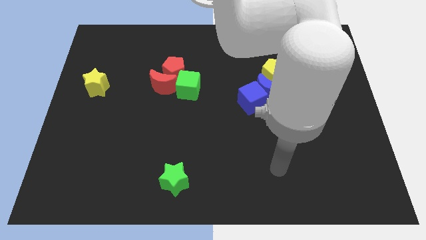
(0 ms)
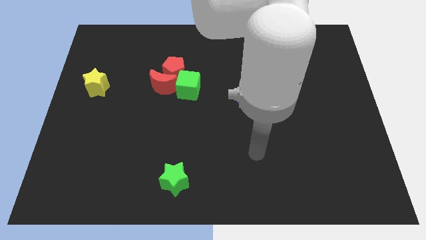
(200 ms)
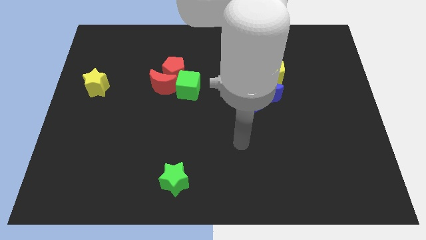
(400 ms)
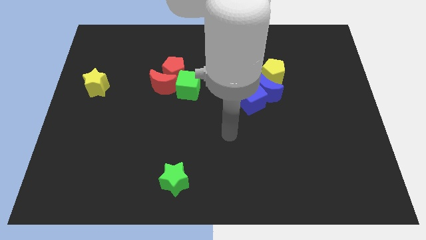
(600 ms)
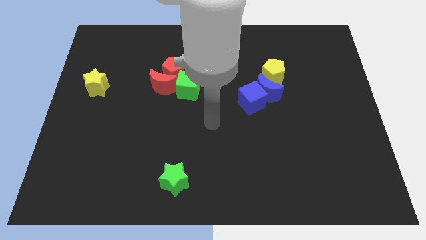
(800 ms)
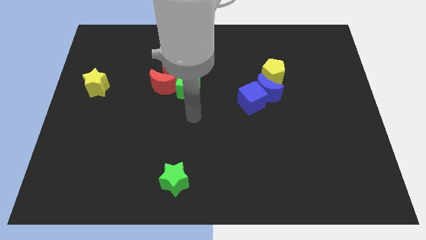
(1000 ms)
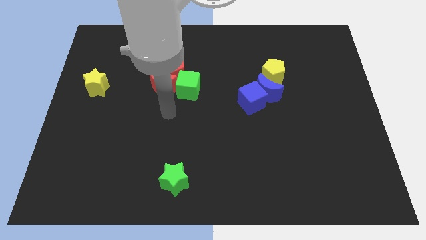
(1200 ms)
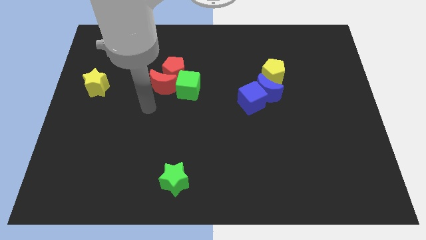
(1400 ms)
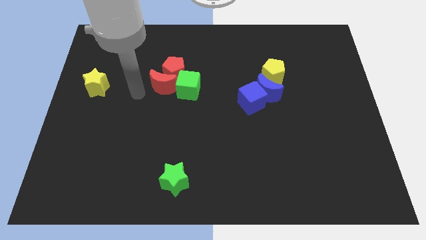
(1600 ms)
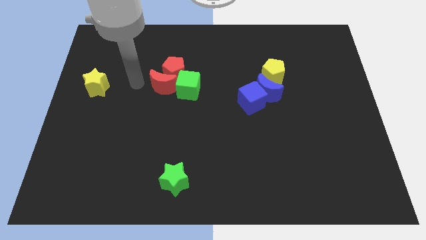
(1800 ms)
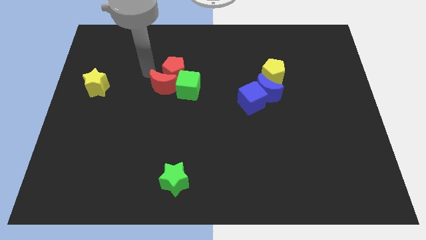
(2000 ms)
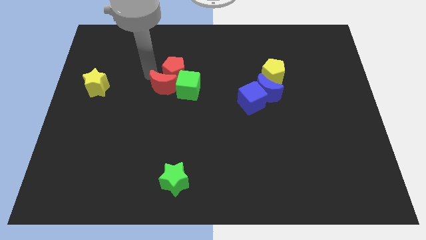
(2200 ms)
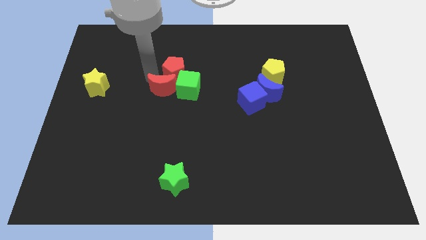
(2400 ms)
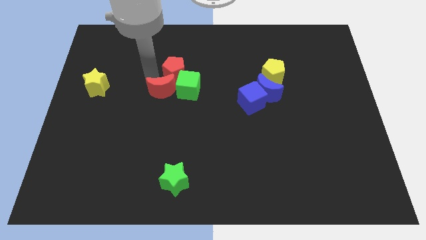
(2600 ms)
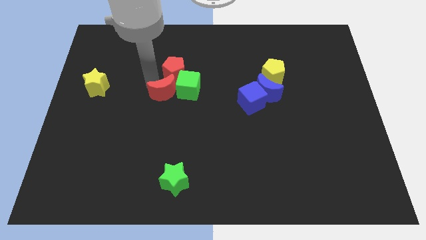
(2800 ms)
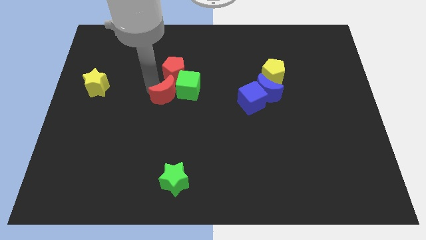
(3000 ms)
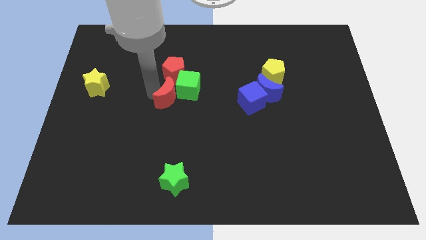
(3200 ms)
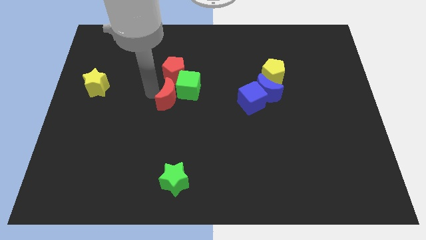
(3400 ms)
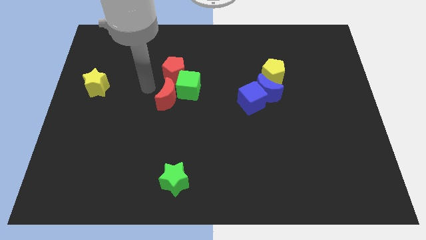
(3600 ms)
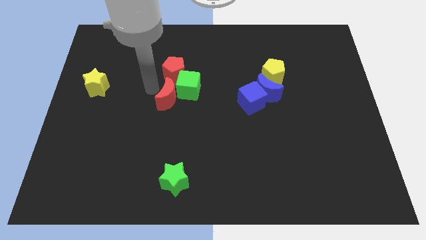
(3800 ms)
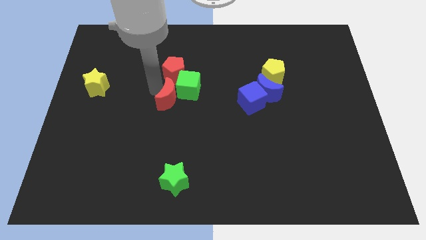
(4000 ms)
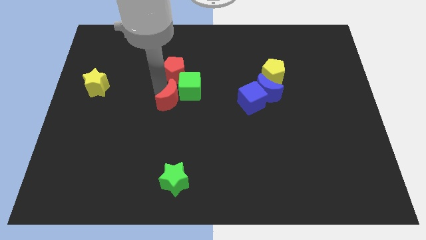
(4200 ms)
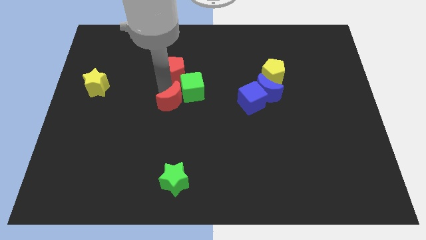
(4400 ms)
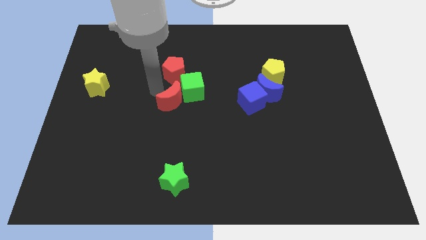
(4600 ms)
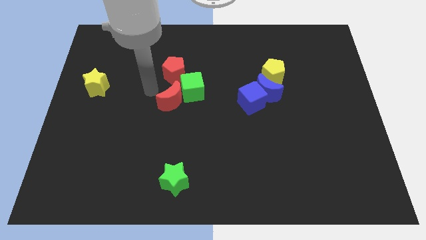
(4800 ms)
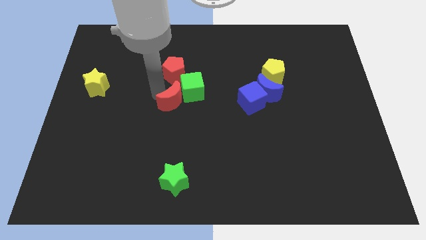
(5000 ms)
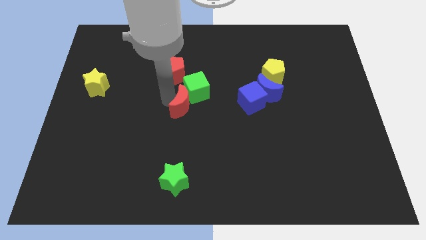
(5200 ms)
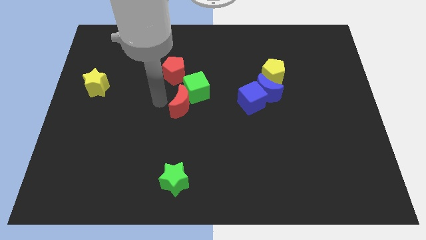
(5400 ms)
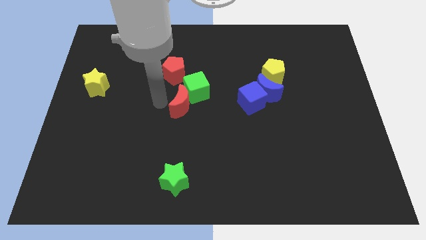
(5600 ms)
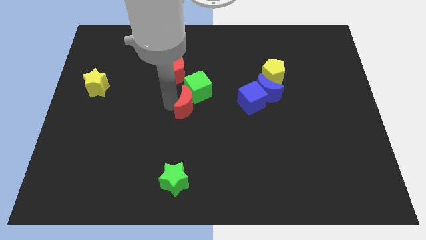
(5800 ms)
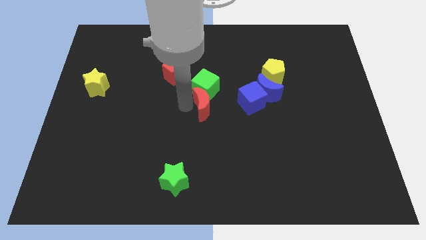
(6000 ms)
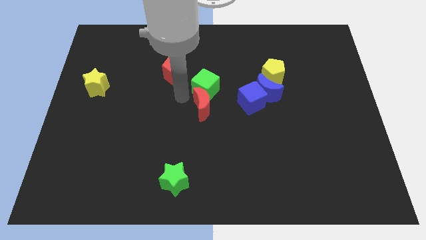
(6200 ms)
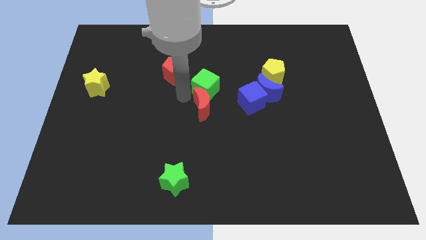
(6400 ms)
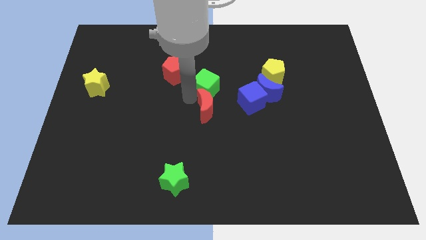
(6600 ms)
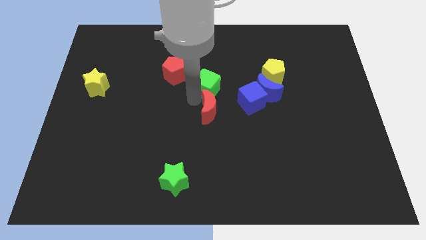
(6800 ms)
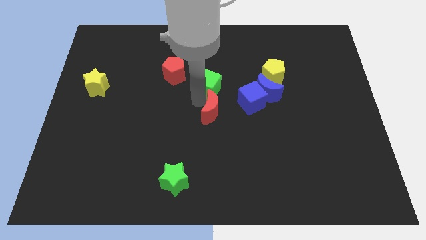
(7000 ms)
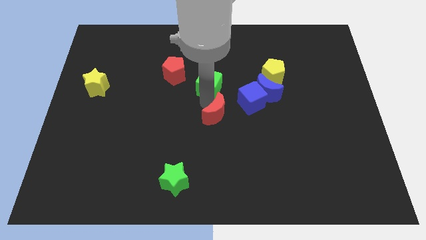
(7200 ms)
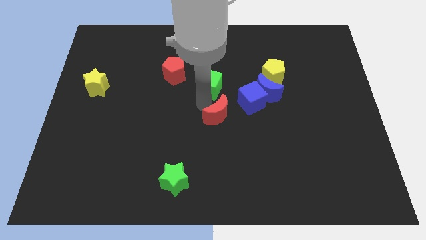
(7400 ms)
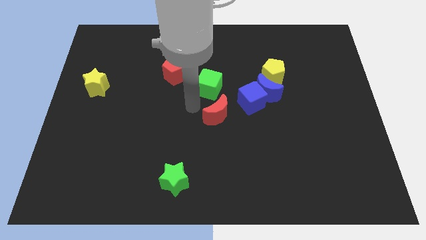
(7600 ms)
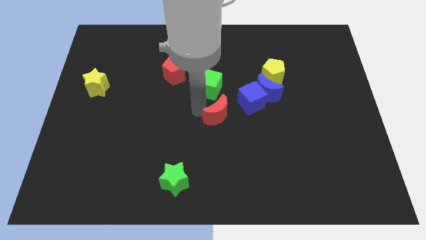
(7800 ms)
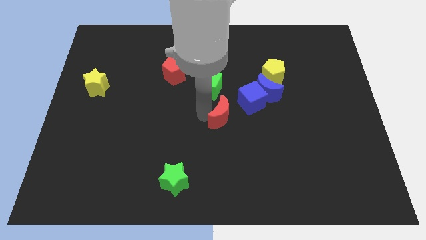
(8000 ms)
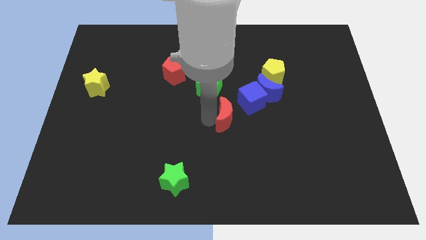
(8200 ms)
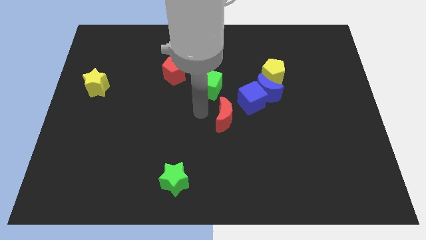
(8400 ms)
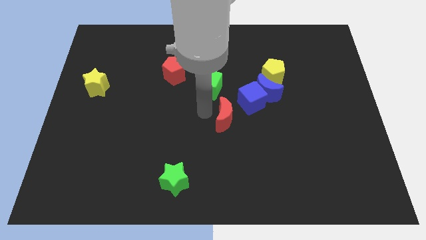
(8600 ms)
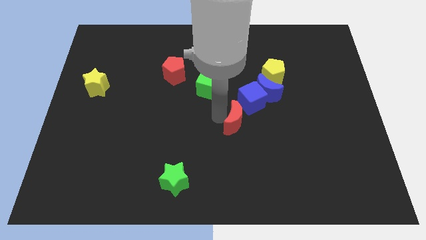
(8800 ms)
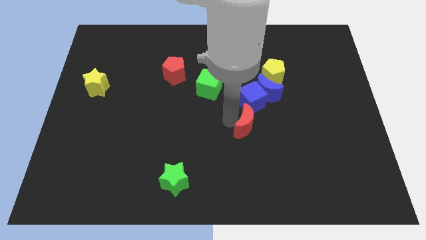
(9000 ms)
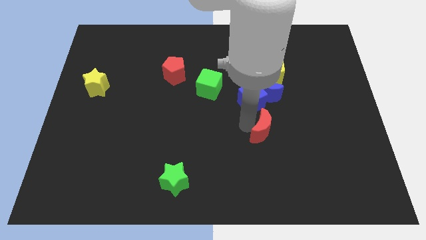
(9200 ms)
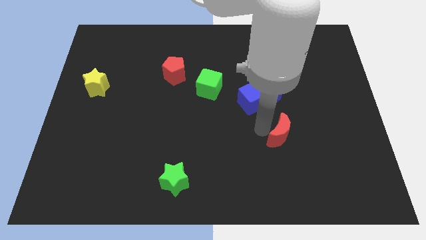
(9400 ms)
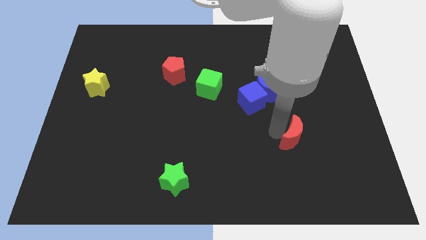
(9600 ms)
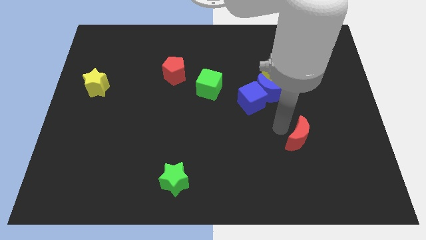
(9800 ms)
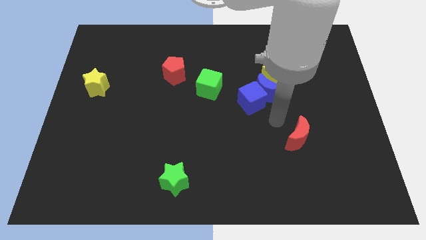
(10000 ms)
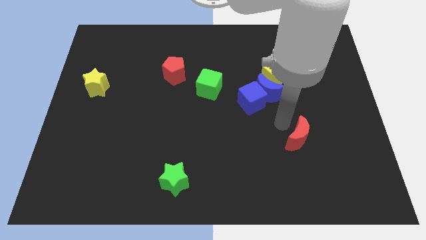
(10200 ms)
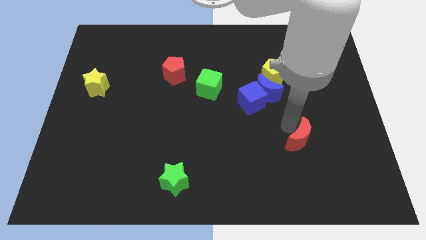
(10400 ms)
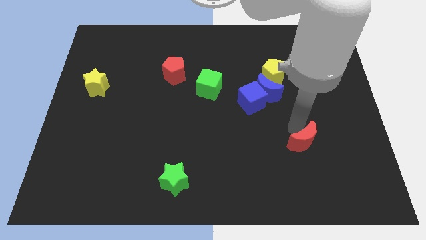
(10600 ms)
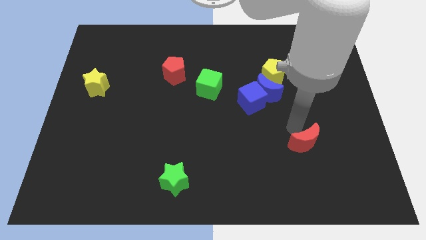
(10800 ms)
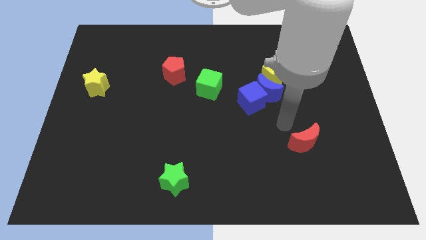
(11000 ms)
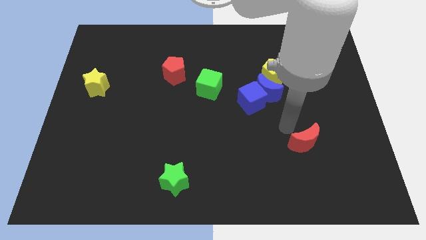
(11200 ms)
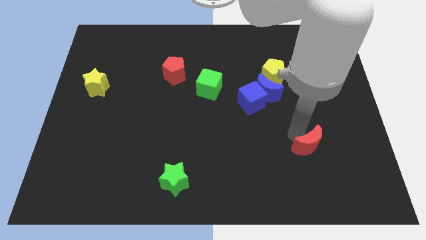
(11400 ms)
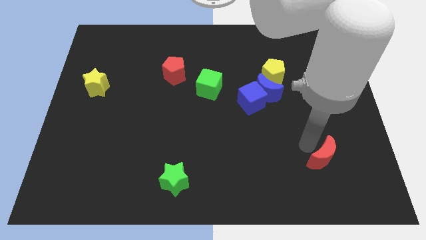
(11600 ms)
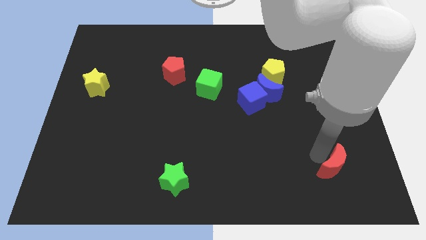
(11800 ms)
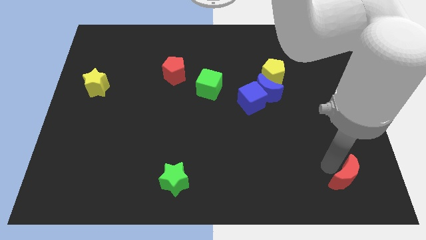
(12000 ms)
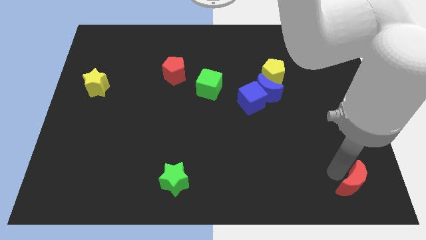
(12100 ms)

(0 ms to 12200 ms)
push the red moon to the bottom right corner

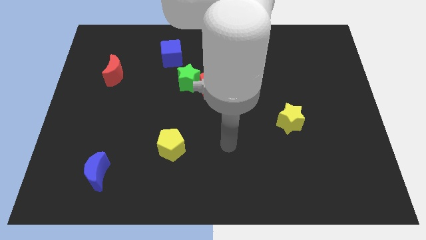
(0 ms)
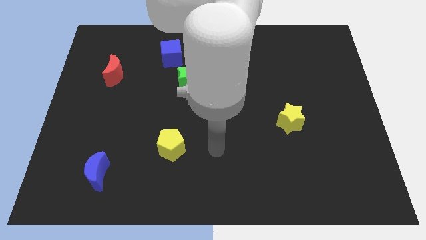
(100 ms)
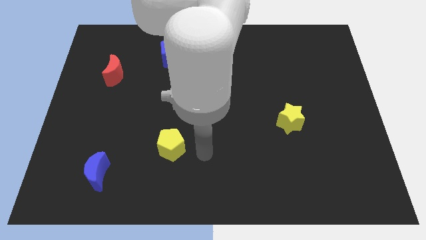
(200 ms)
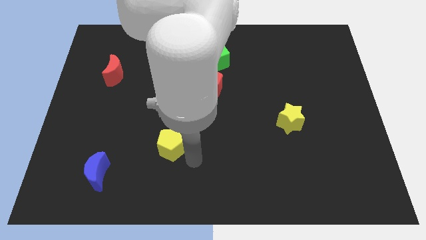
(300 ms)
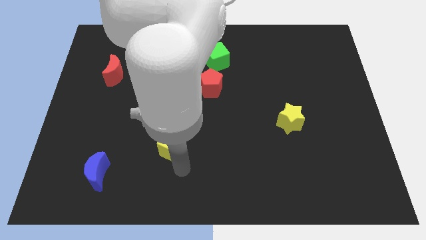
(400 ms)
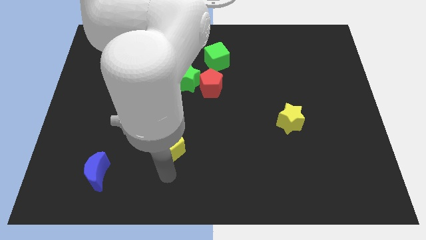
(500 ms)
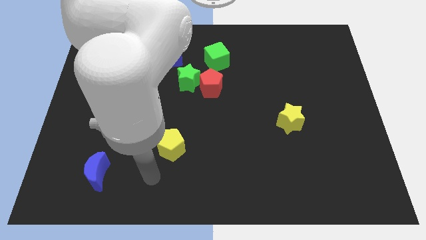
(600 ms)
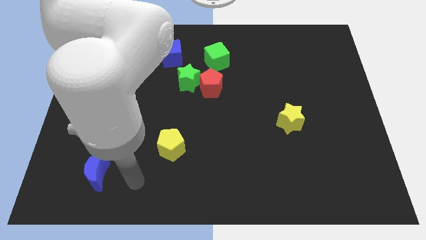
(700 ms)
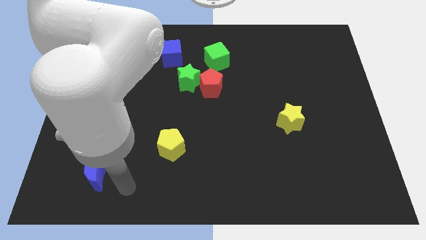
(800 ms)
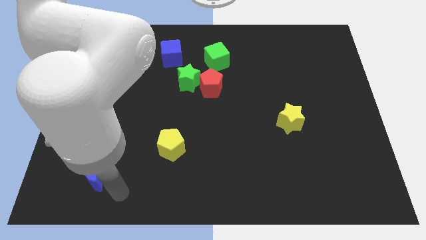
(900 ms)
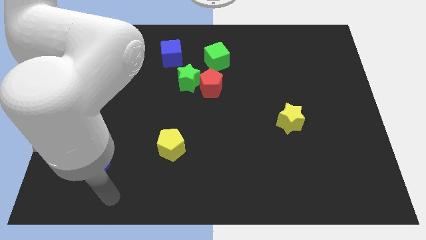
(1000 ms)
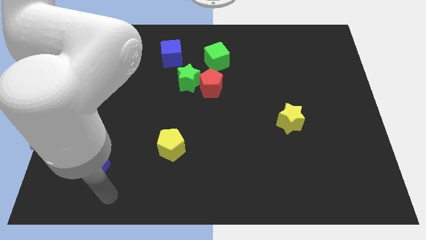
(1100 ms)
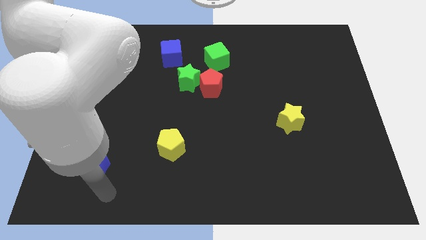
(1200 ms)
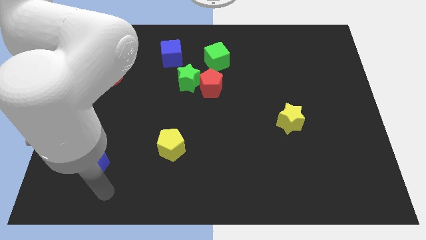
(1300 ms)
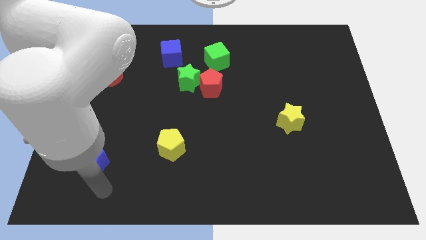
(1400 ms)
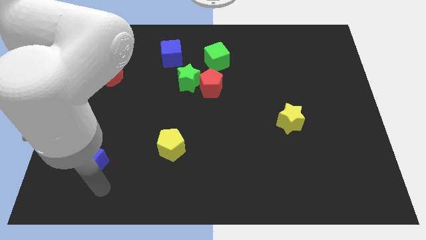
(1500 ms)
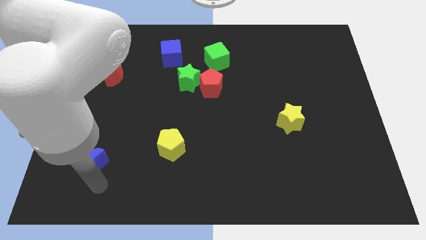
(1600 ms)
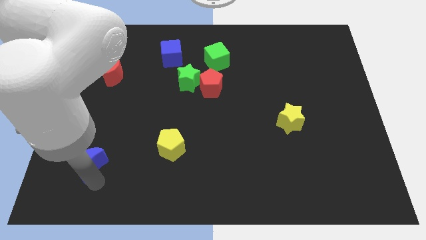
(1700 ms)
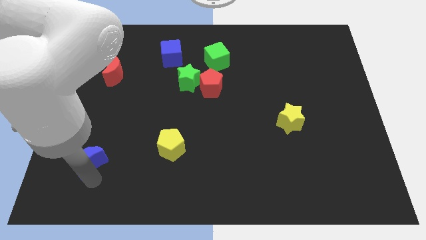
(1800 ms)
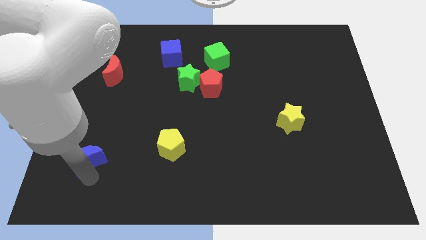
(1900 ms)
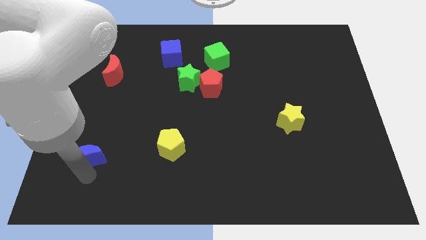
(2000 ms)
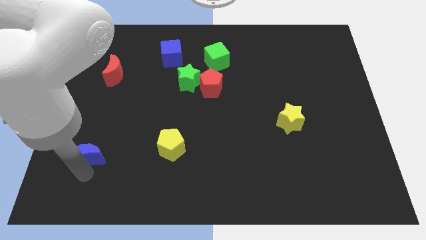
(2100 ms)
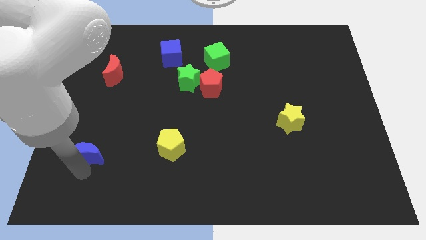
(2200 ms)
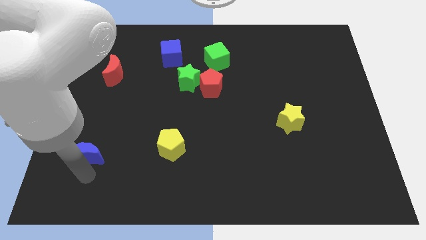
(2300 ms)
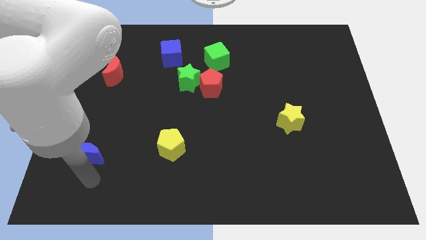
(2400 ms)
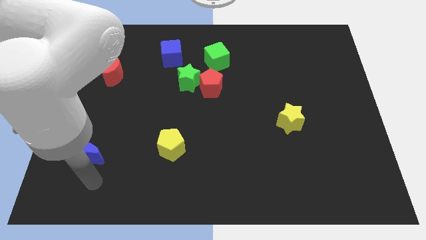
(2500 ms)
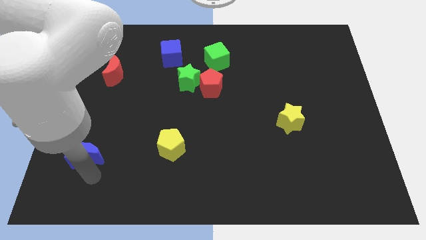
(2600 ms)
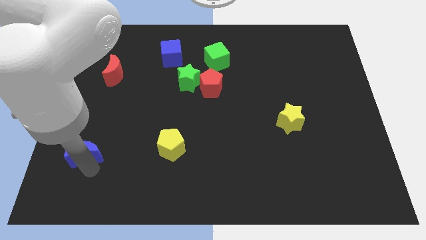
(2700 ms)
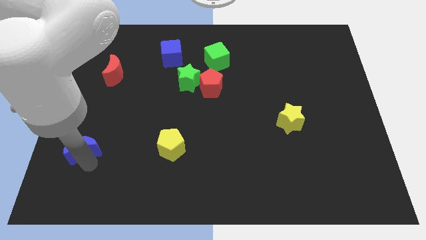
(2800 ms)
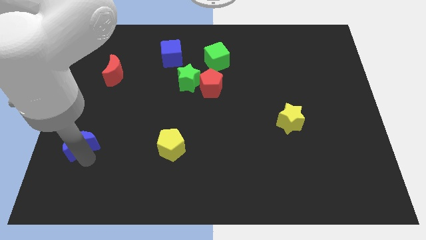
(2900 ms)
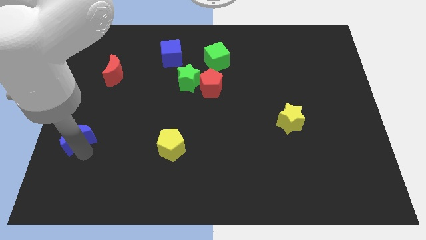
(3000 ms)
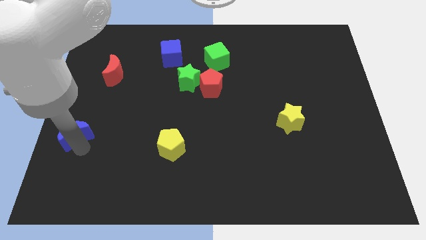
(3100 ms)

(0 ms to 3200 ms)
push the blue moon to the left side of the board
